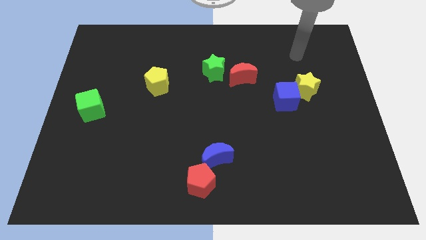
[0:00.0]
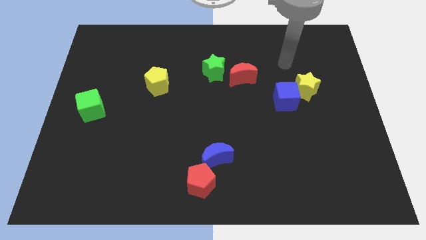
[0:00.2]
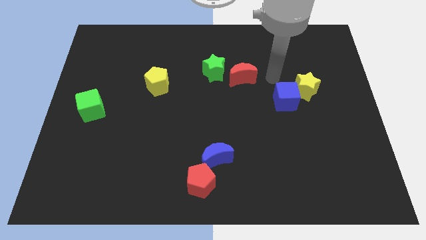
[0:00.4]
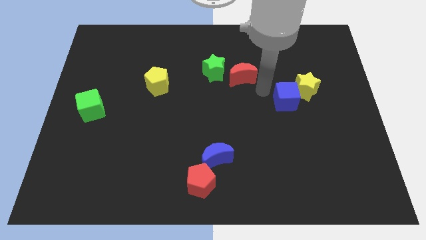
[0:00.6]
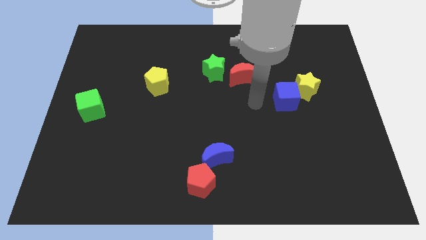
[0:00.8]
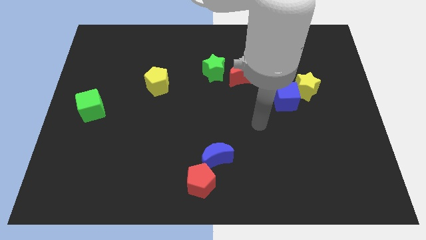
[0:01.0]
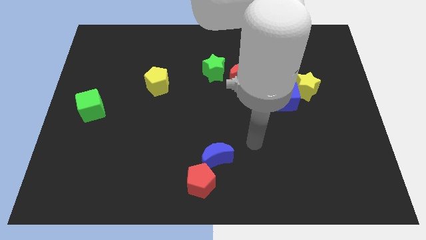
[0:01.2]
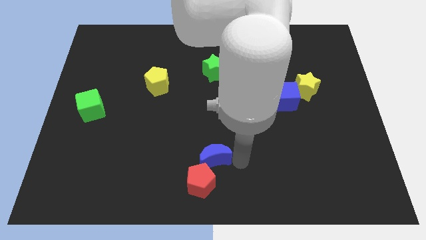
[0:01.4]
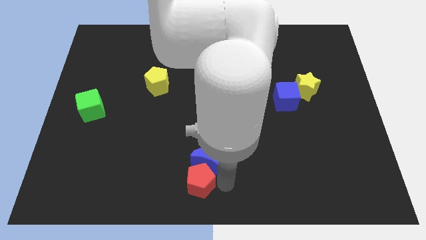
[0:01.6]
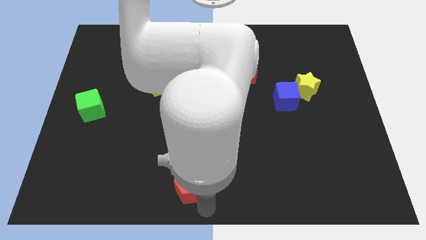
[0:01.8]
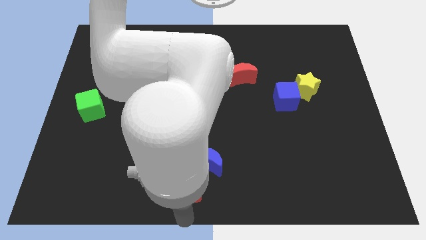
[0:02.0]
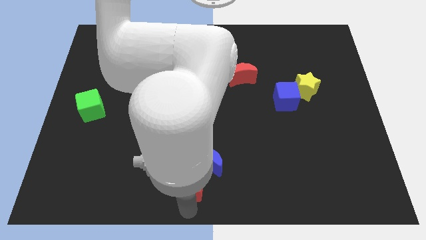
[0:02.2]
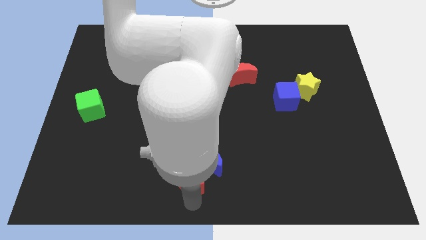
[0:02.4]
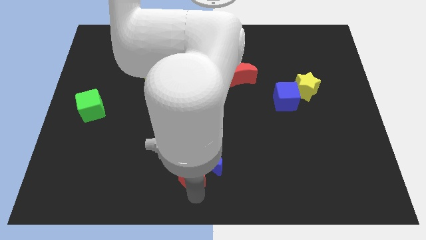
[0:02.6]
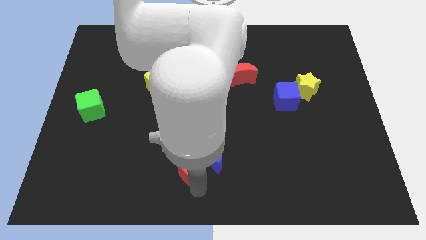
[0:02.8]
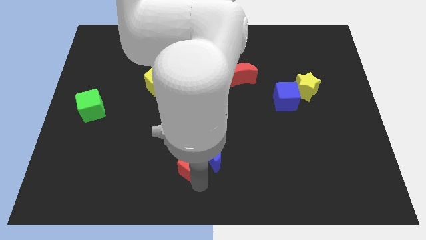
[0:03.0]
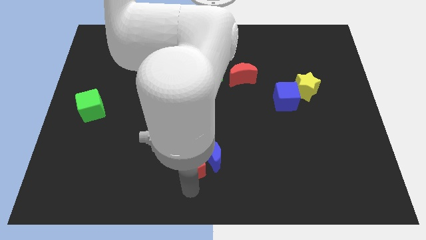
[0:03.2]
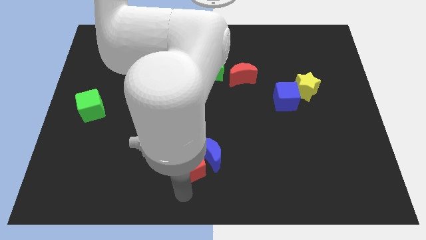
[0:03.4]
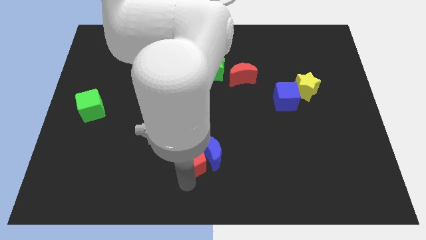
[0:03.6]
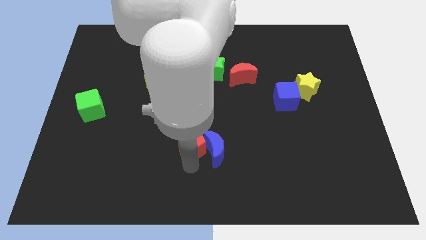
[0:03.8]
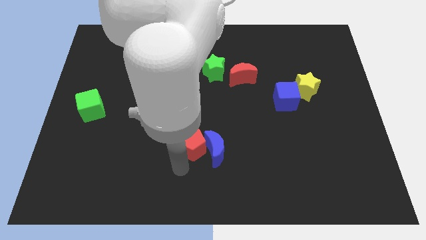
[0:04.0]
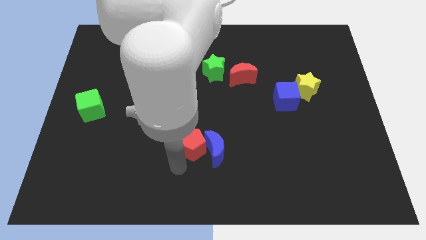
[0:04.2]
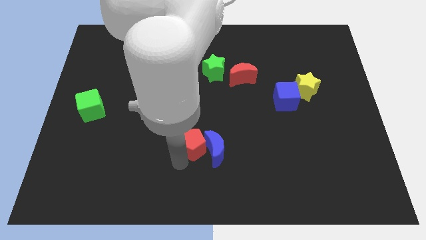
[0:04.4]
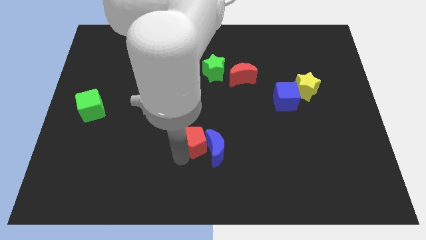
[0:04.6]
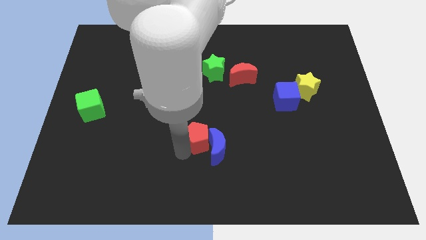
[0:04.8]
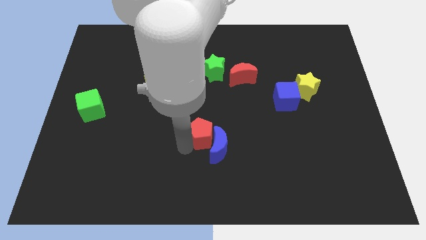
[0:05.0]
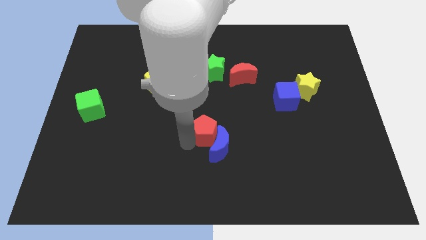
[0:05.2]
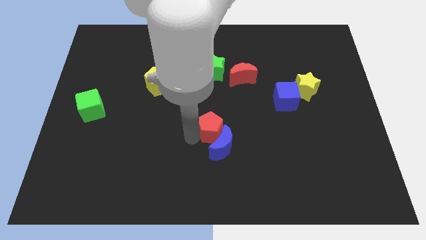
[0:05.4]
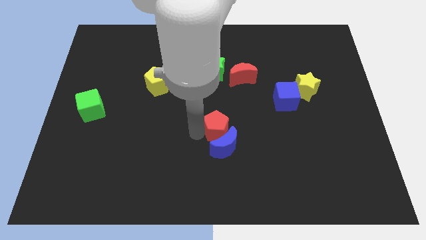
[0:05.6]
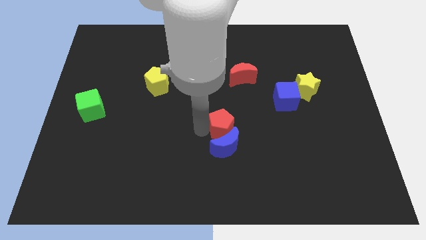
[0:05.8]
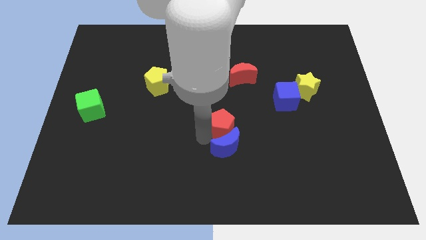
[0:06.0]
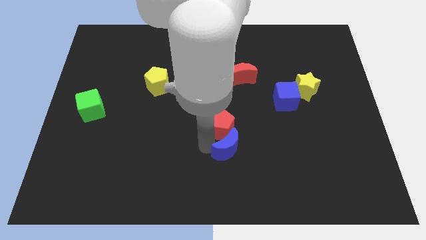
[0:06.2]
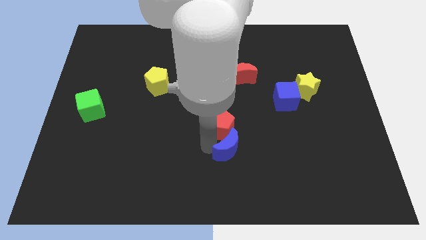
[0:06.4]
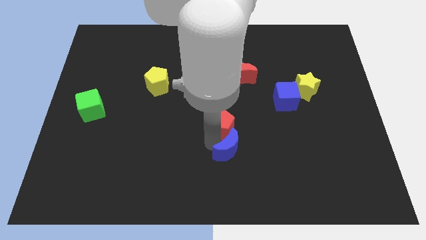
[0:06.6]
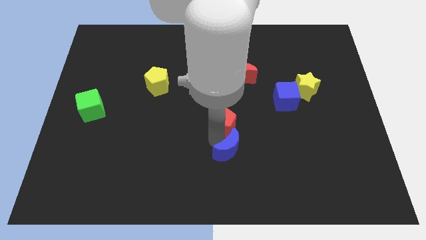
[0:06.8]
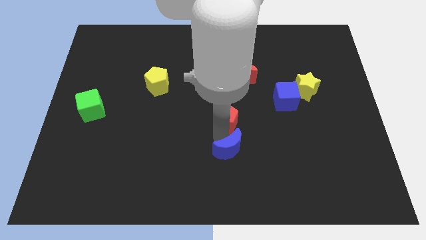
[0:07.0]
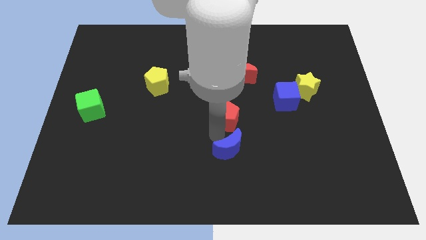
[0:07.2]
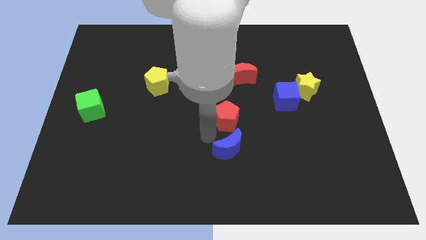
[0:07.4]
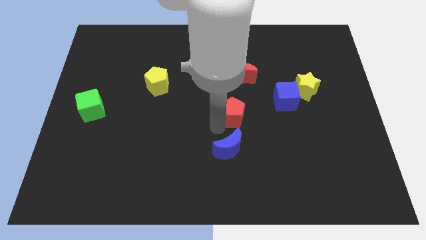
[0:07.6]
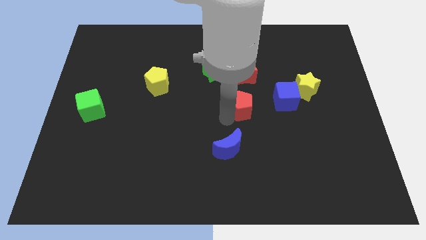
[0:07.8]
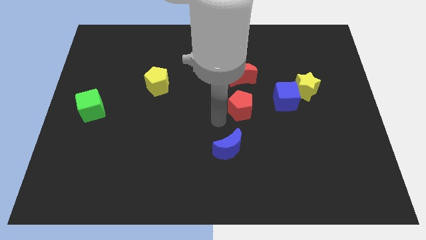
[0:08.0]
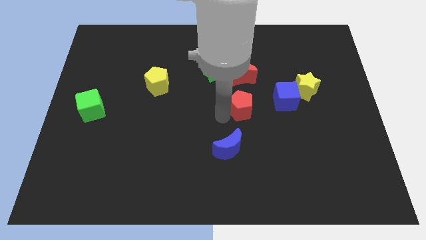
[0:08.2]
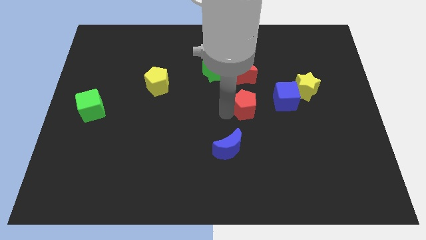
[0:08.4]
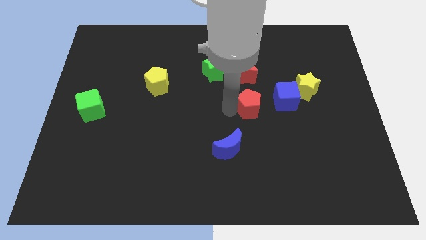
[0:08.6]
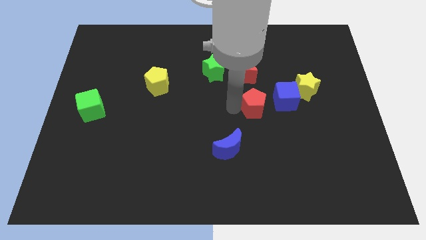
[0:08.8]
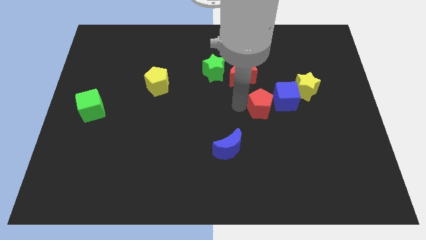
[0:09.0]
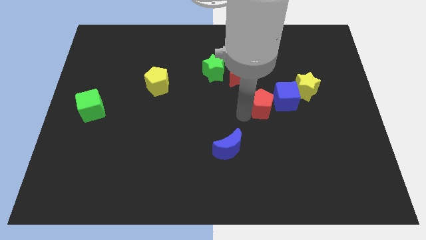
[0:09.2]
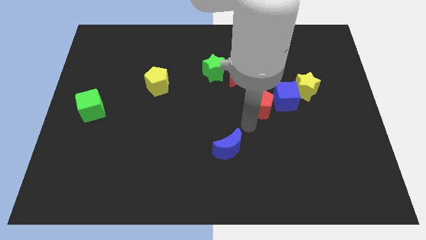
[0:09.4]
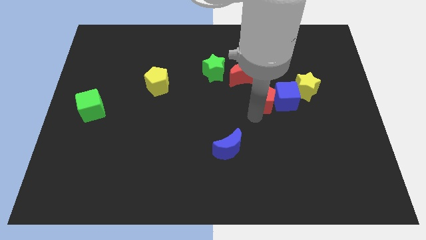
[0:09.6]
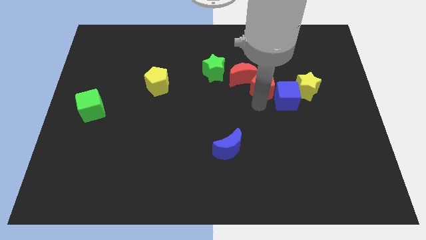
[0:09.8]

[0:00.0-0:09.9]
slide the red pentagon to the right side of the red moon

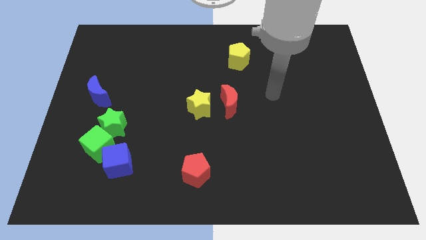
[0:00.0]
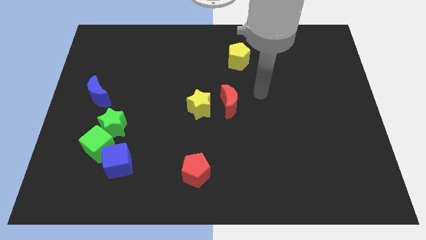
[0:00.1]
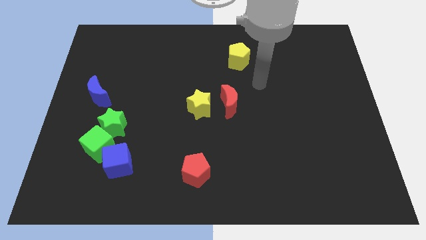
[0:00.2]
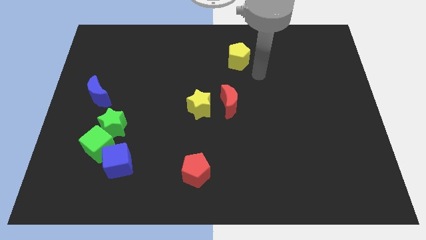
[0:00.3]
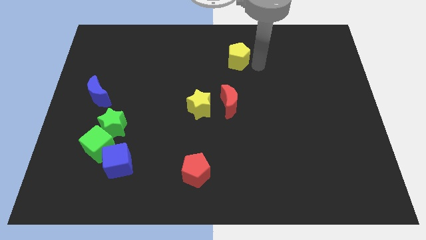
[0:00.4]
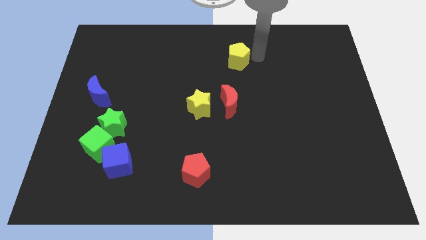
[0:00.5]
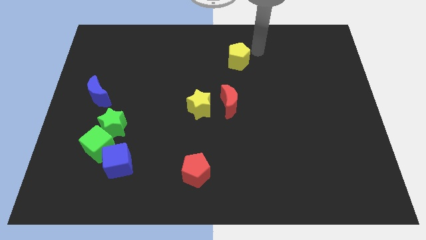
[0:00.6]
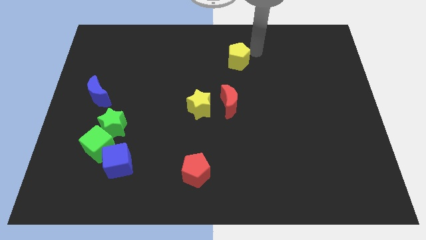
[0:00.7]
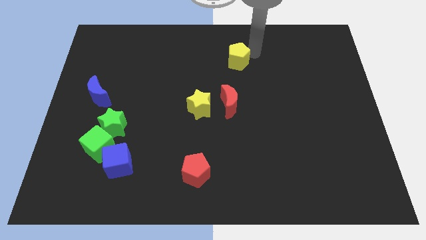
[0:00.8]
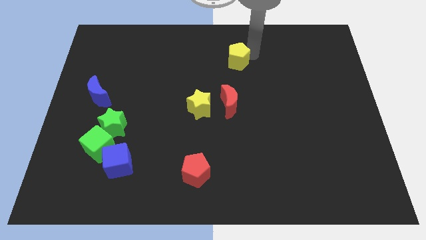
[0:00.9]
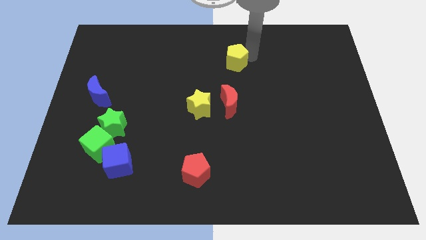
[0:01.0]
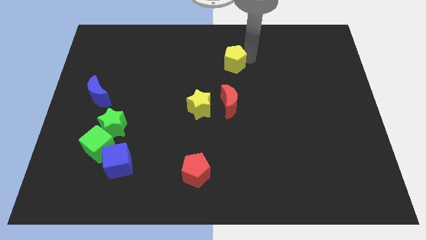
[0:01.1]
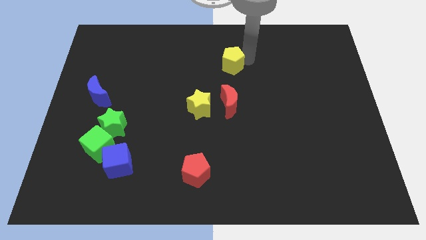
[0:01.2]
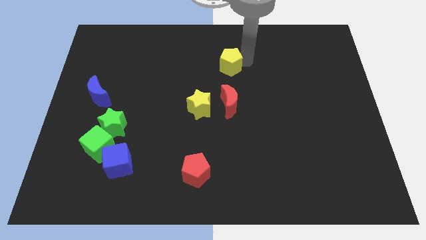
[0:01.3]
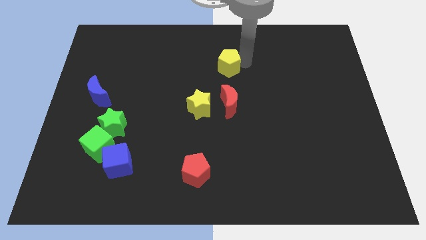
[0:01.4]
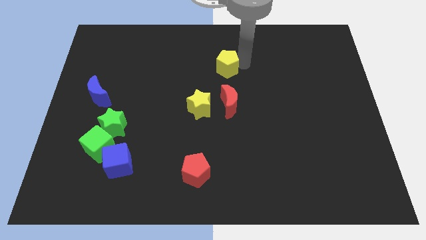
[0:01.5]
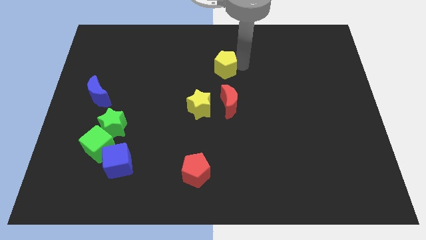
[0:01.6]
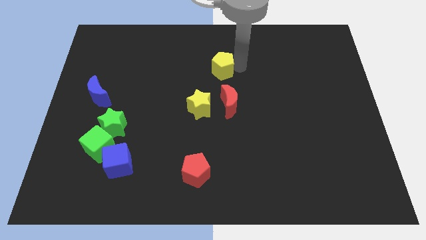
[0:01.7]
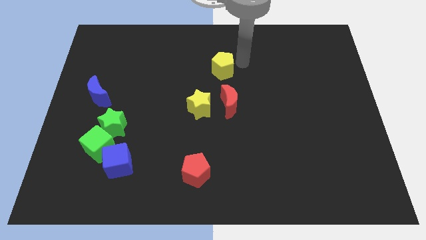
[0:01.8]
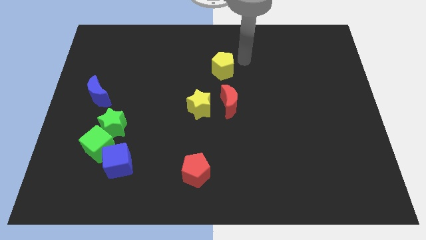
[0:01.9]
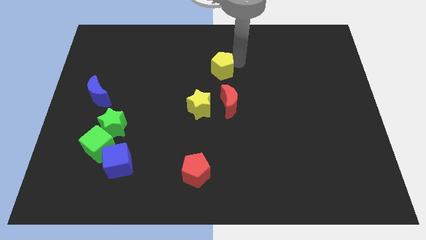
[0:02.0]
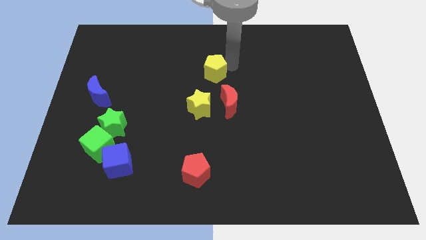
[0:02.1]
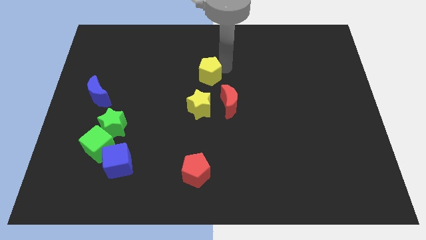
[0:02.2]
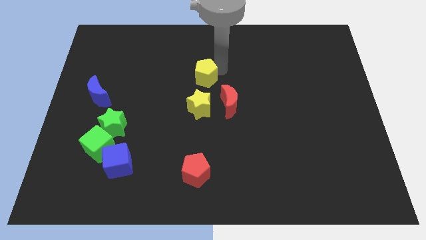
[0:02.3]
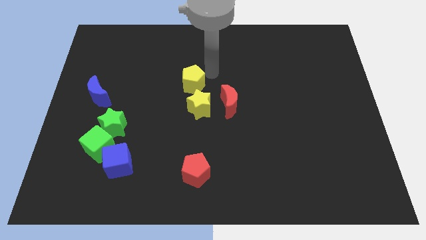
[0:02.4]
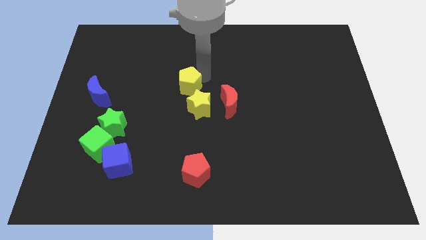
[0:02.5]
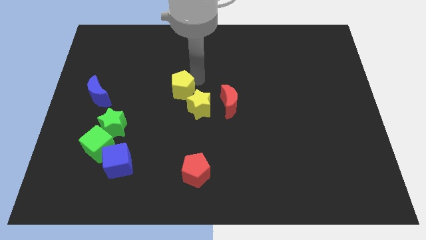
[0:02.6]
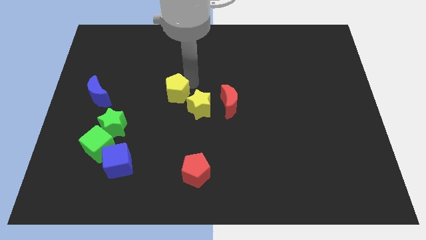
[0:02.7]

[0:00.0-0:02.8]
put the yellow pentagon to the left side of the yellow star
